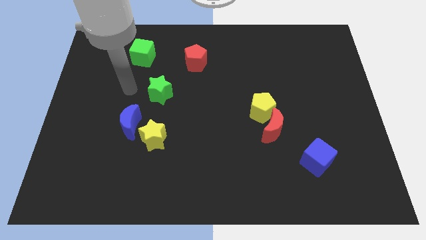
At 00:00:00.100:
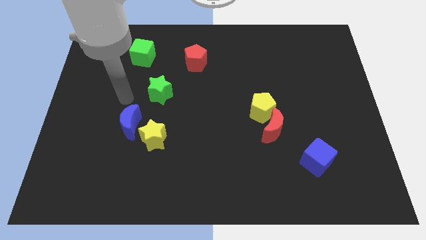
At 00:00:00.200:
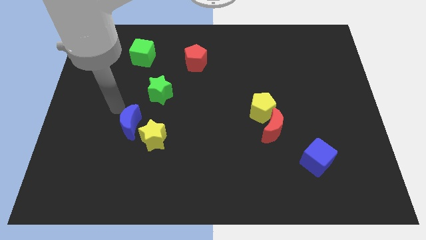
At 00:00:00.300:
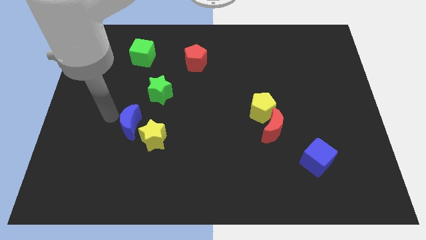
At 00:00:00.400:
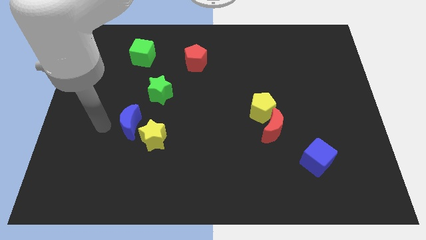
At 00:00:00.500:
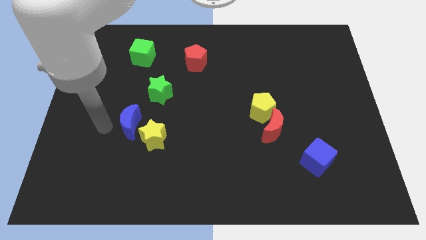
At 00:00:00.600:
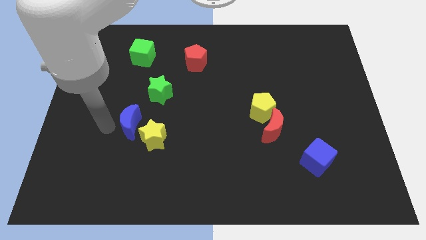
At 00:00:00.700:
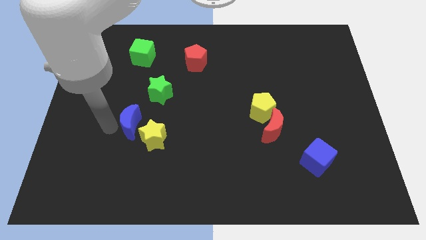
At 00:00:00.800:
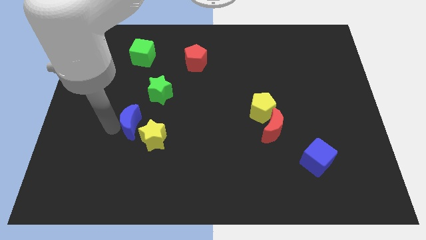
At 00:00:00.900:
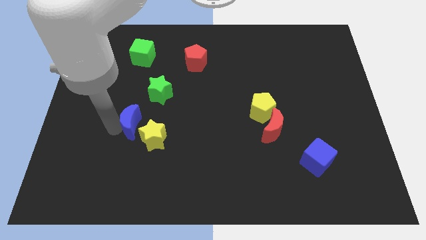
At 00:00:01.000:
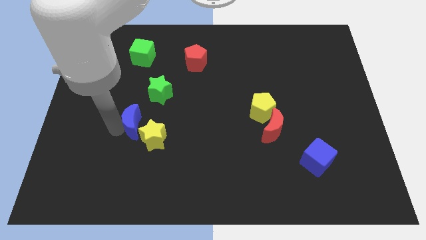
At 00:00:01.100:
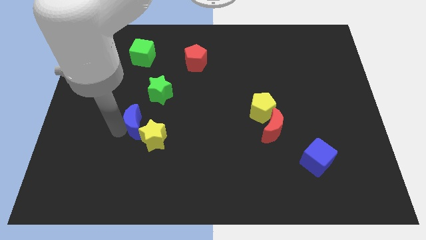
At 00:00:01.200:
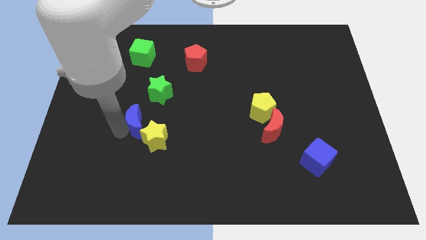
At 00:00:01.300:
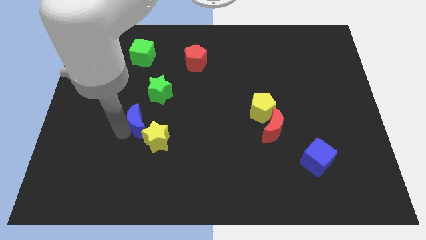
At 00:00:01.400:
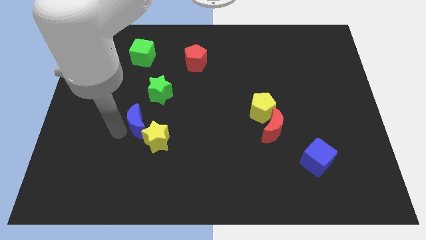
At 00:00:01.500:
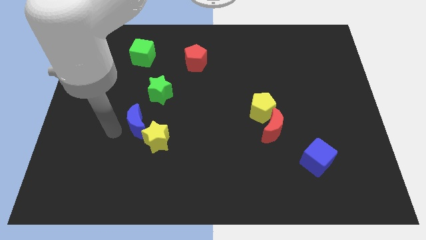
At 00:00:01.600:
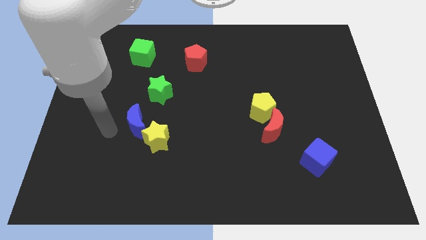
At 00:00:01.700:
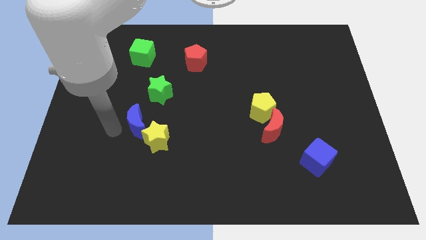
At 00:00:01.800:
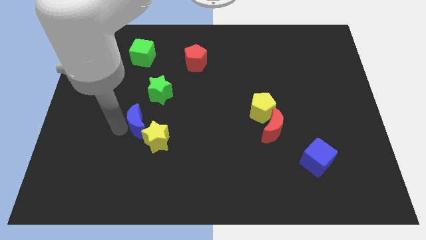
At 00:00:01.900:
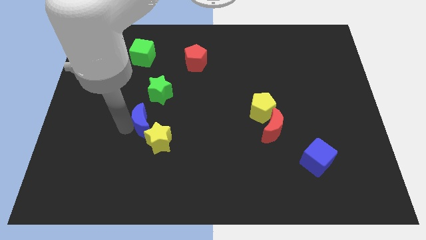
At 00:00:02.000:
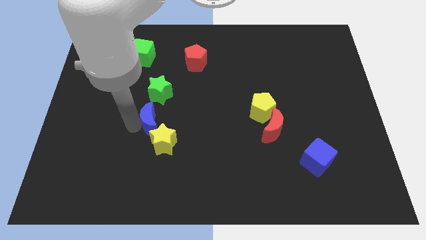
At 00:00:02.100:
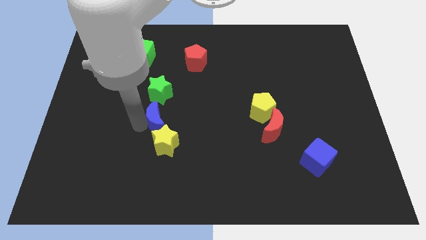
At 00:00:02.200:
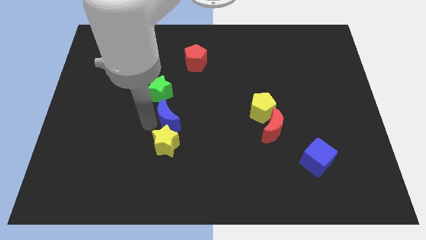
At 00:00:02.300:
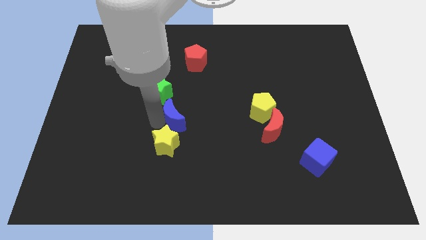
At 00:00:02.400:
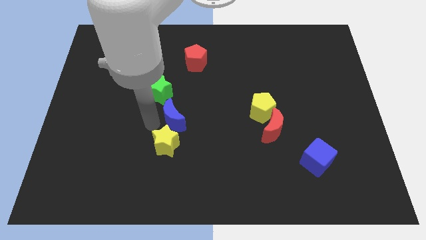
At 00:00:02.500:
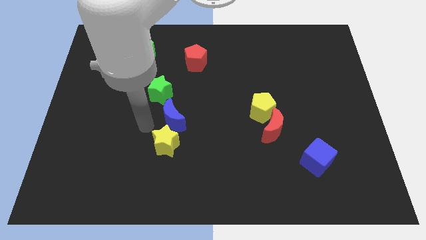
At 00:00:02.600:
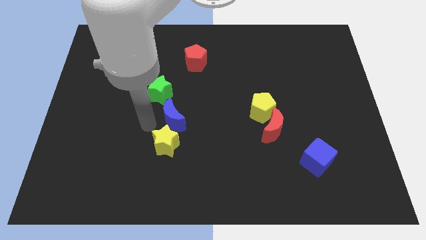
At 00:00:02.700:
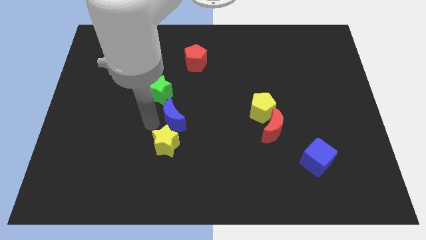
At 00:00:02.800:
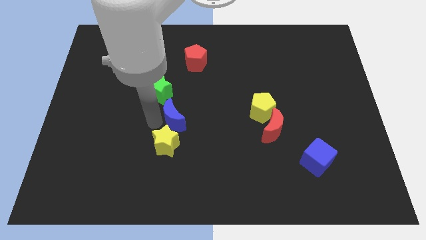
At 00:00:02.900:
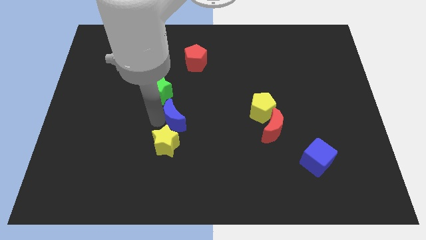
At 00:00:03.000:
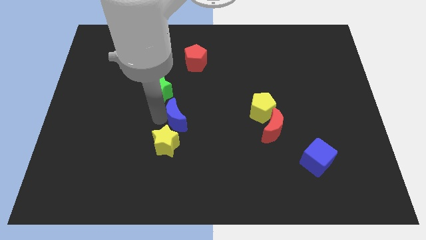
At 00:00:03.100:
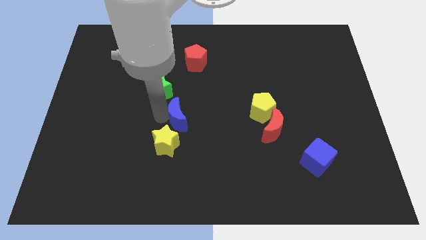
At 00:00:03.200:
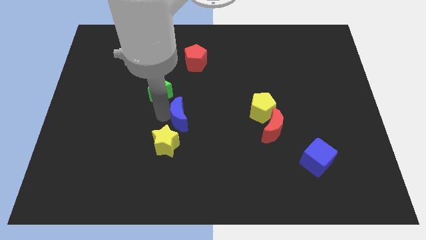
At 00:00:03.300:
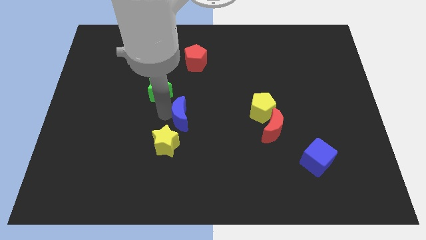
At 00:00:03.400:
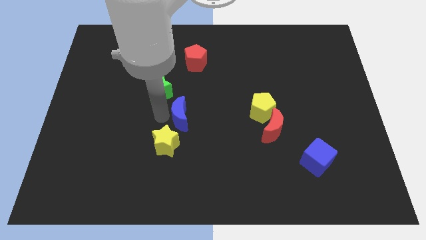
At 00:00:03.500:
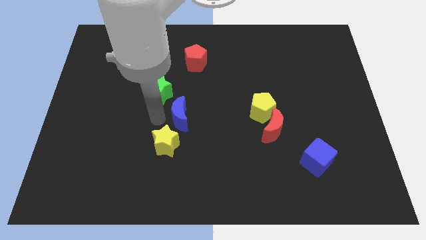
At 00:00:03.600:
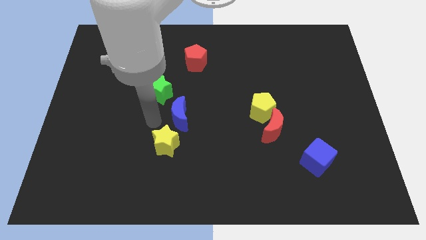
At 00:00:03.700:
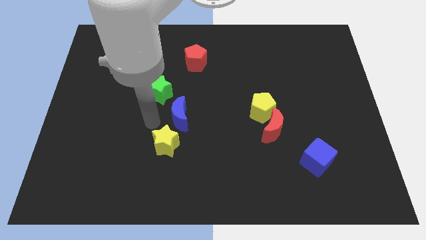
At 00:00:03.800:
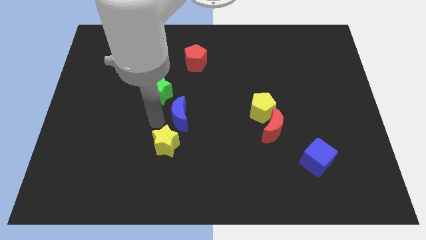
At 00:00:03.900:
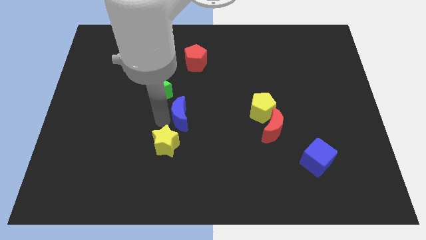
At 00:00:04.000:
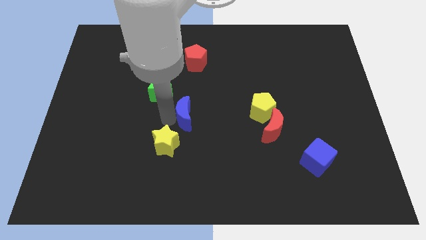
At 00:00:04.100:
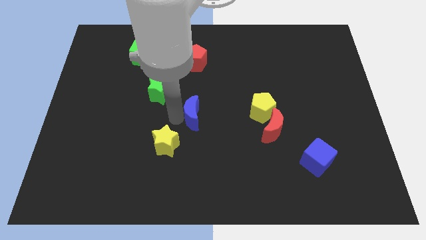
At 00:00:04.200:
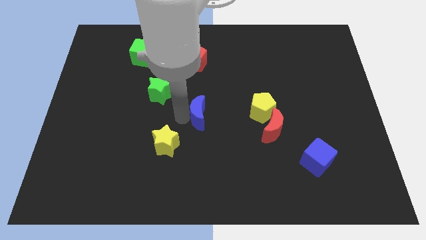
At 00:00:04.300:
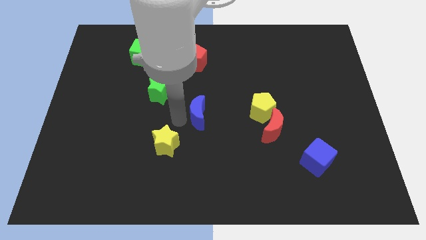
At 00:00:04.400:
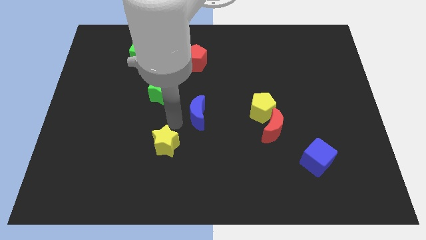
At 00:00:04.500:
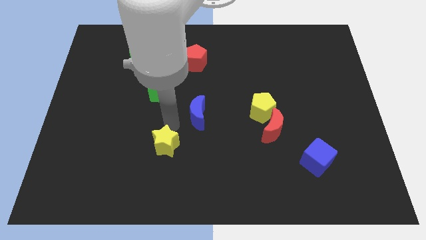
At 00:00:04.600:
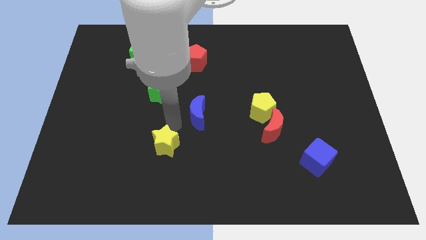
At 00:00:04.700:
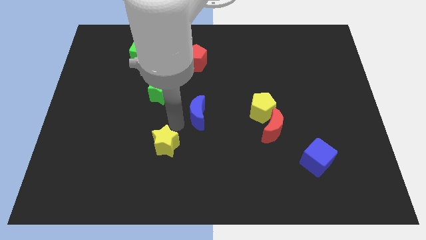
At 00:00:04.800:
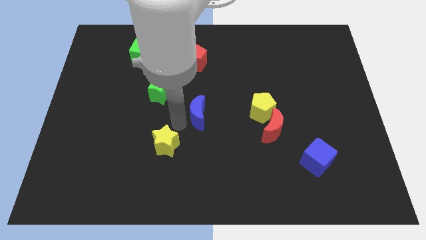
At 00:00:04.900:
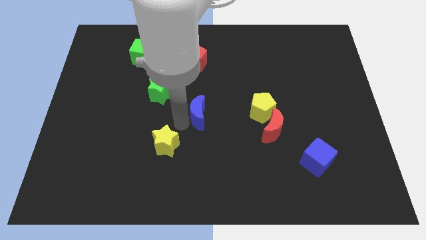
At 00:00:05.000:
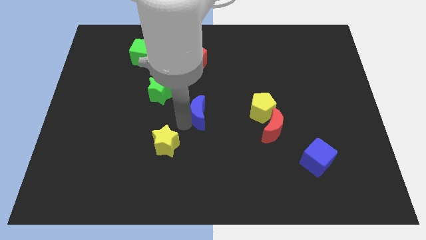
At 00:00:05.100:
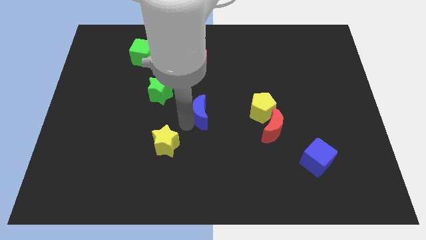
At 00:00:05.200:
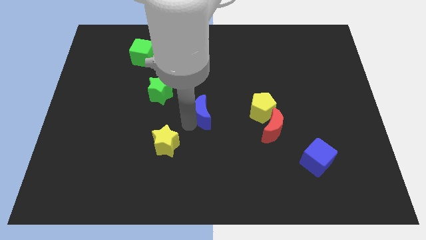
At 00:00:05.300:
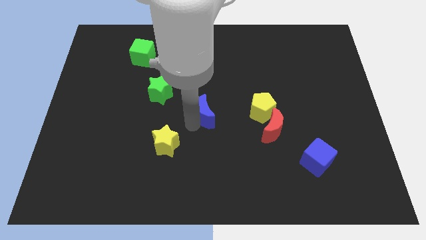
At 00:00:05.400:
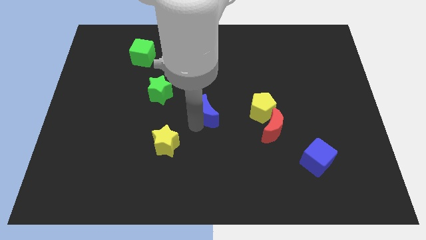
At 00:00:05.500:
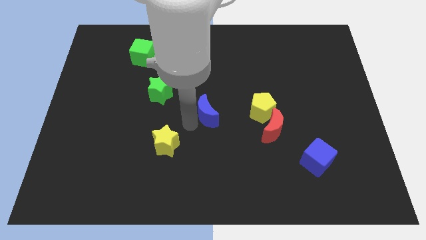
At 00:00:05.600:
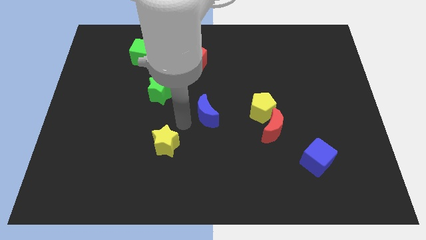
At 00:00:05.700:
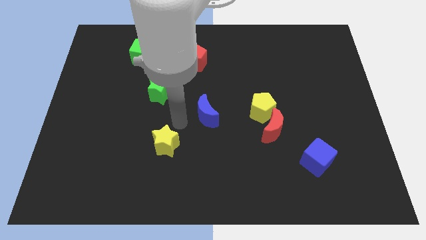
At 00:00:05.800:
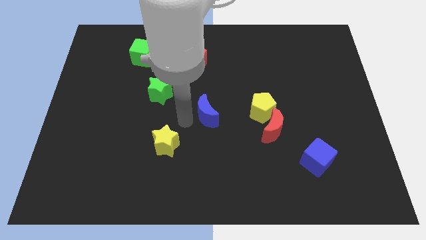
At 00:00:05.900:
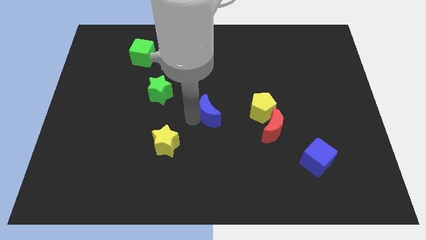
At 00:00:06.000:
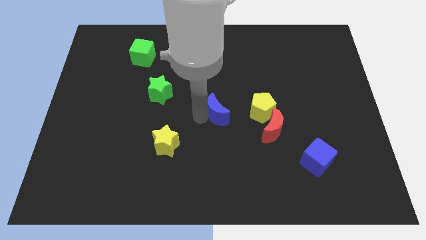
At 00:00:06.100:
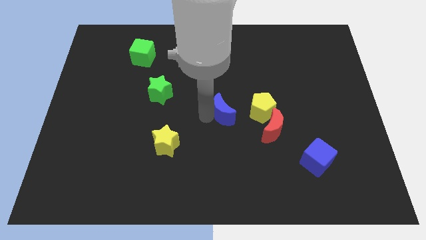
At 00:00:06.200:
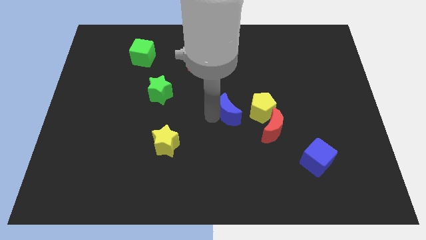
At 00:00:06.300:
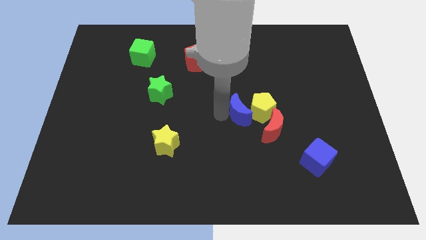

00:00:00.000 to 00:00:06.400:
put the blue moon towards the yellow pentagon

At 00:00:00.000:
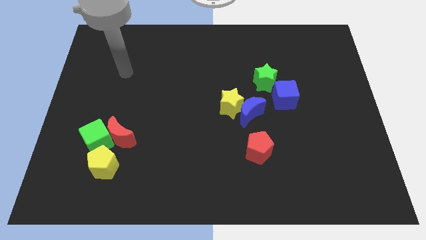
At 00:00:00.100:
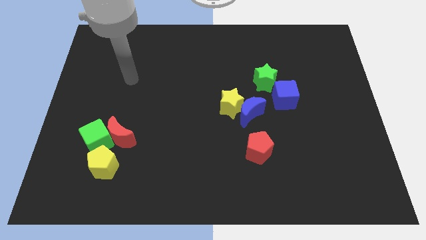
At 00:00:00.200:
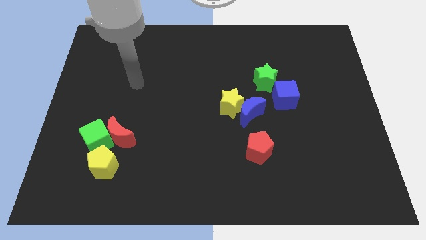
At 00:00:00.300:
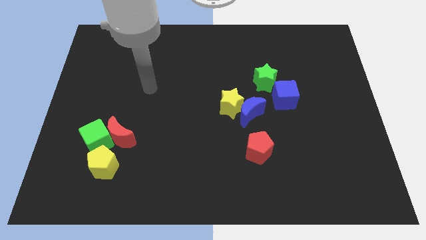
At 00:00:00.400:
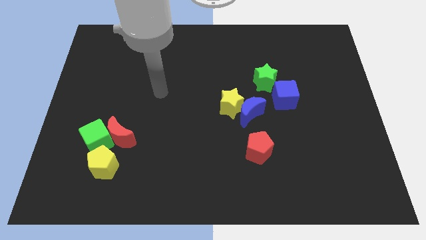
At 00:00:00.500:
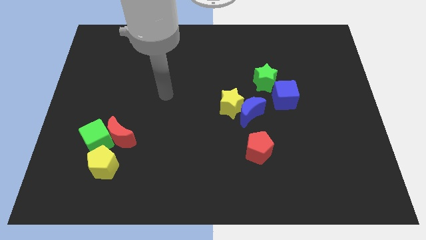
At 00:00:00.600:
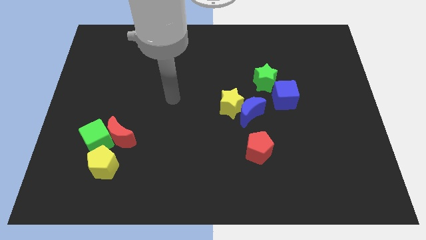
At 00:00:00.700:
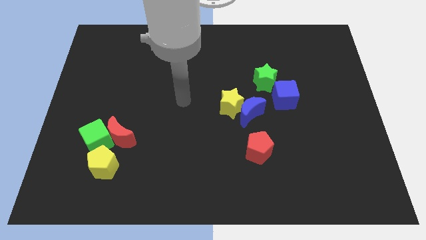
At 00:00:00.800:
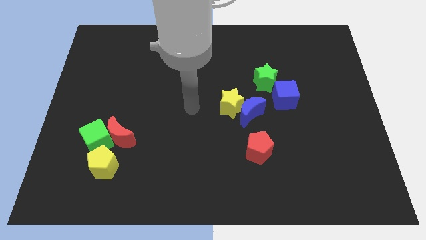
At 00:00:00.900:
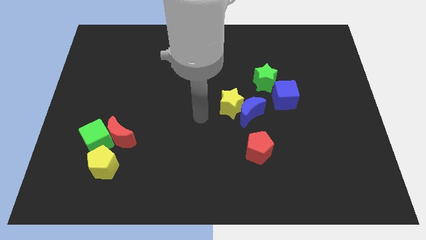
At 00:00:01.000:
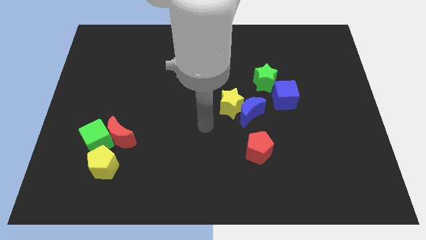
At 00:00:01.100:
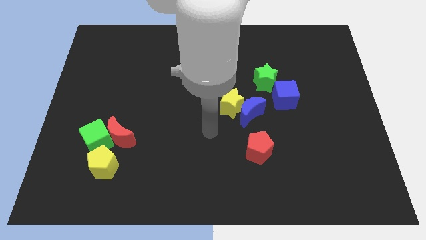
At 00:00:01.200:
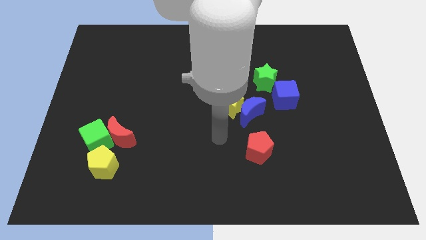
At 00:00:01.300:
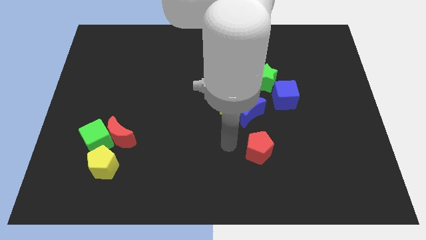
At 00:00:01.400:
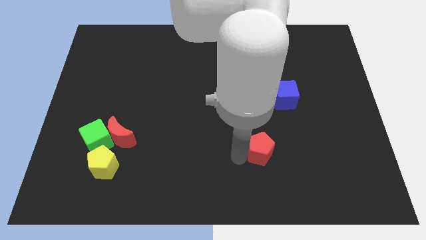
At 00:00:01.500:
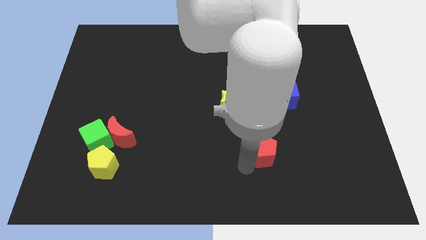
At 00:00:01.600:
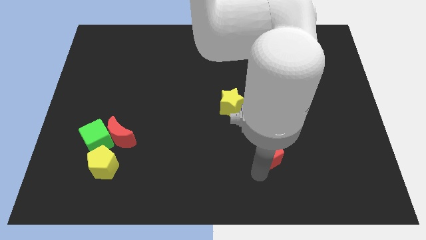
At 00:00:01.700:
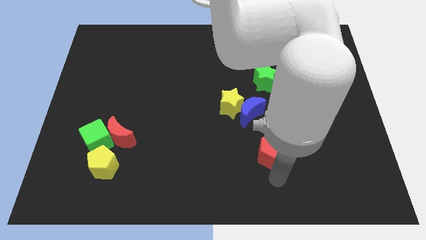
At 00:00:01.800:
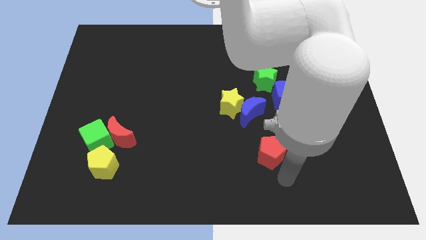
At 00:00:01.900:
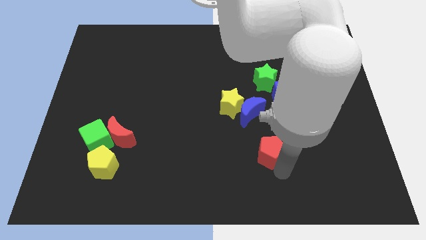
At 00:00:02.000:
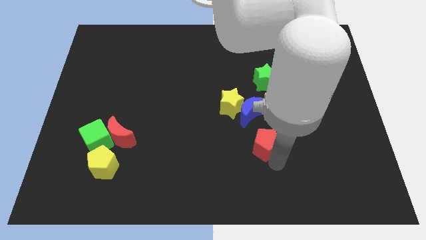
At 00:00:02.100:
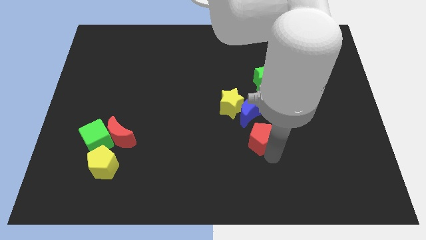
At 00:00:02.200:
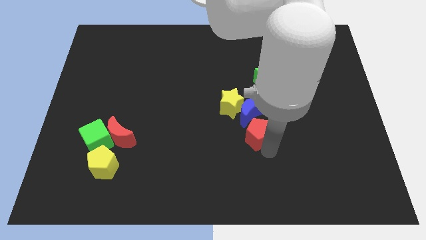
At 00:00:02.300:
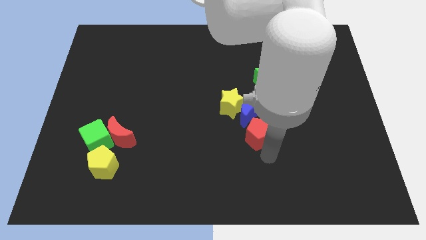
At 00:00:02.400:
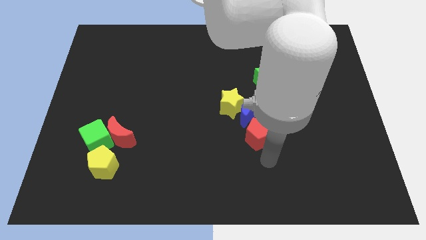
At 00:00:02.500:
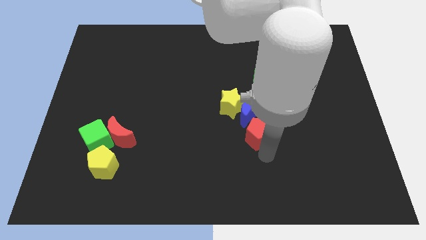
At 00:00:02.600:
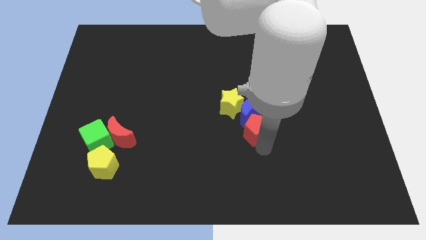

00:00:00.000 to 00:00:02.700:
push the red pentagon towards the blue moon
